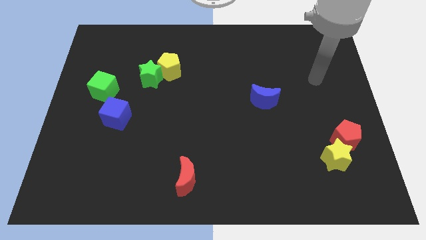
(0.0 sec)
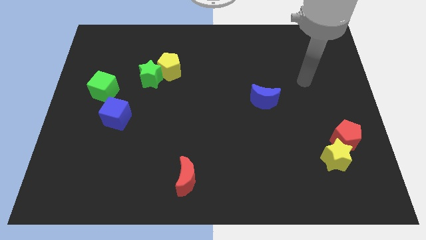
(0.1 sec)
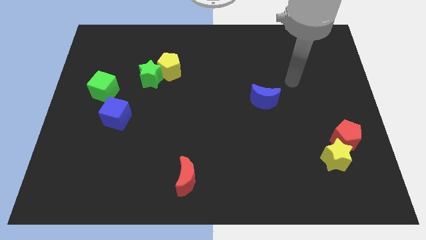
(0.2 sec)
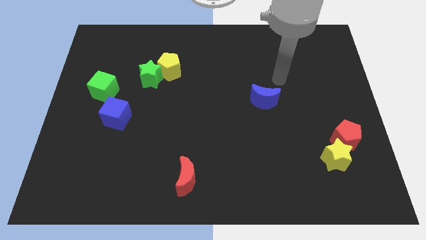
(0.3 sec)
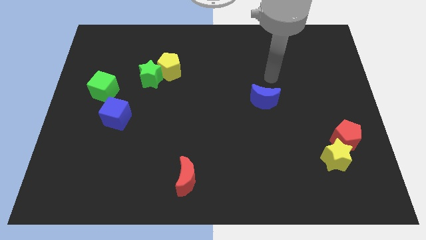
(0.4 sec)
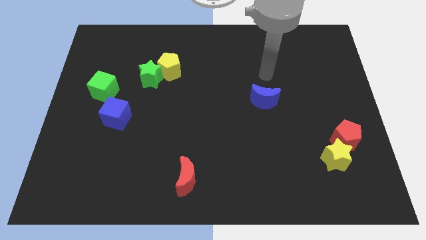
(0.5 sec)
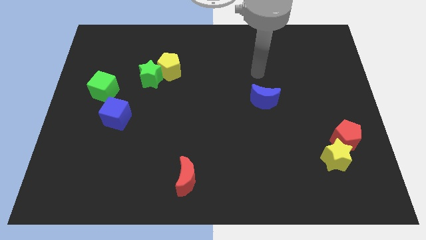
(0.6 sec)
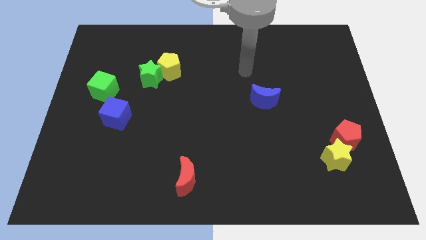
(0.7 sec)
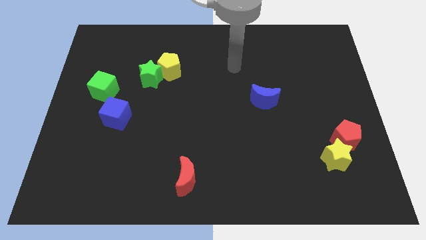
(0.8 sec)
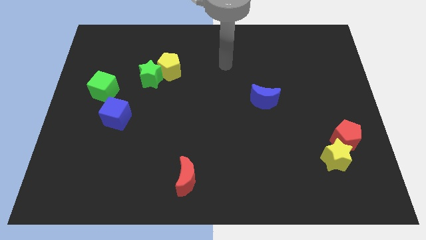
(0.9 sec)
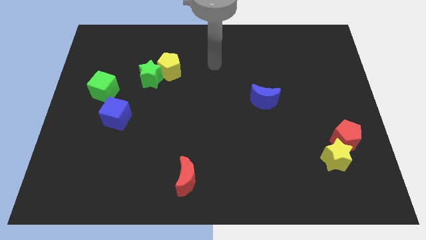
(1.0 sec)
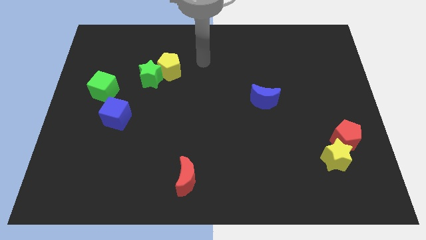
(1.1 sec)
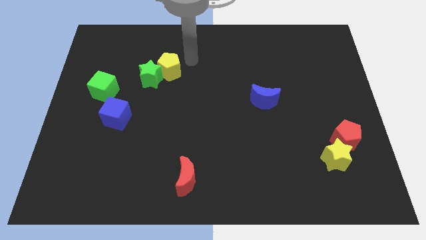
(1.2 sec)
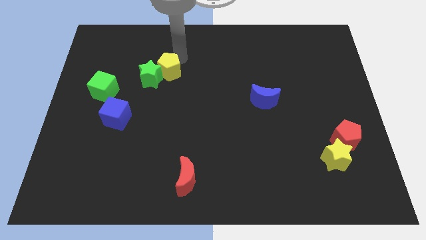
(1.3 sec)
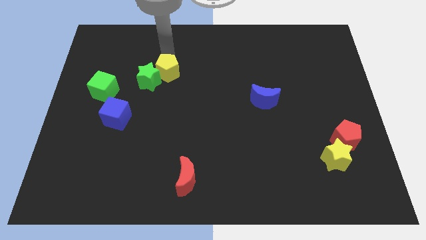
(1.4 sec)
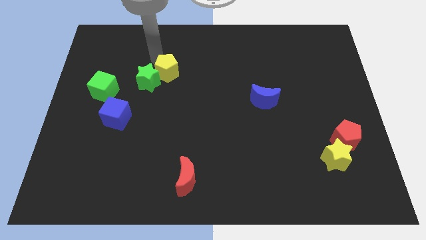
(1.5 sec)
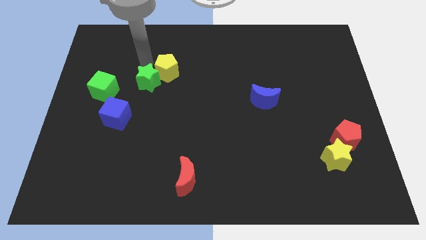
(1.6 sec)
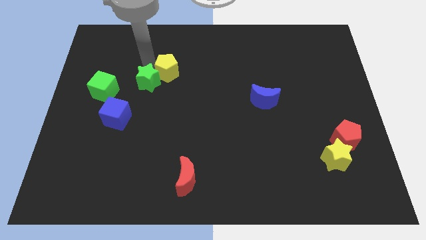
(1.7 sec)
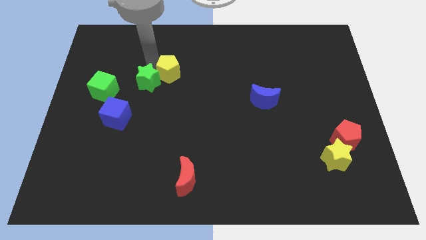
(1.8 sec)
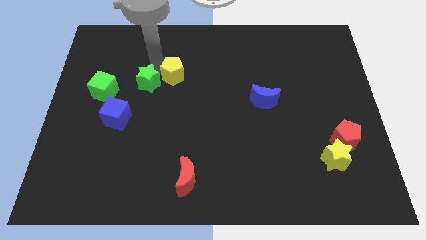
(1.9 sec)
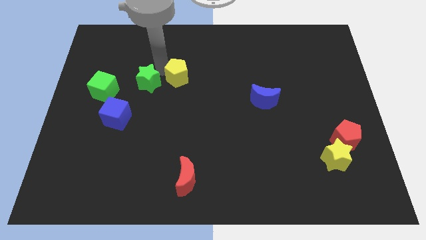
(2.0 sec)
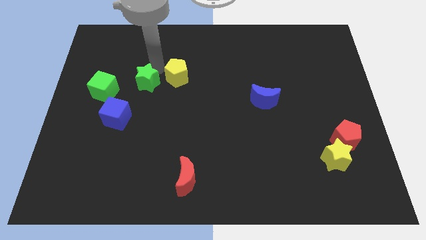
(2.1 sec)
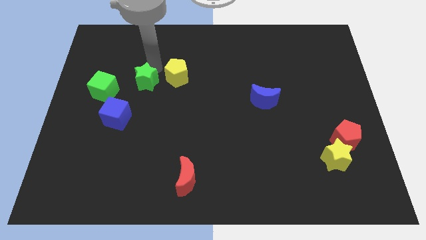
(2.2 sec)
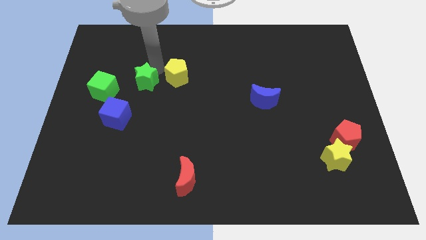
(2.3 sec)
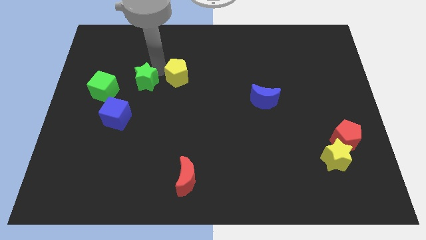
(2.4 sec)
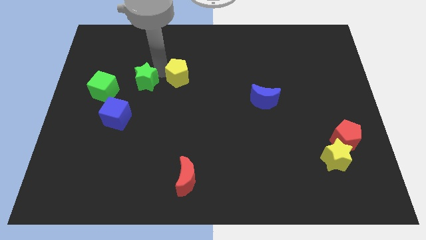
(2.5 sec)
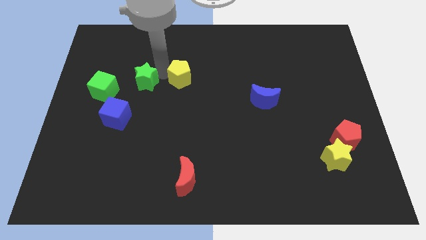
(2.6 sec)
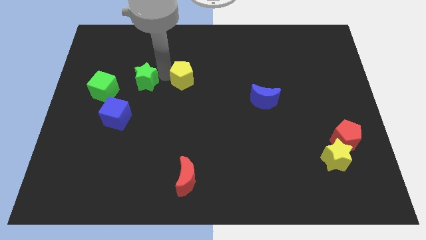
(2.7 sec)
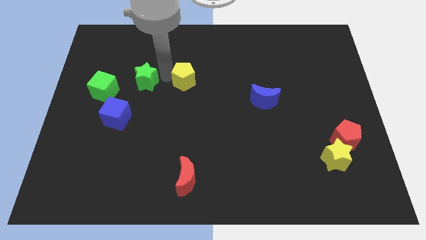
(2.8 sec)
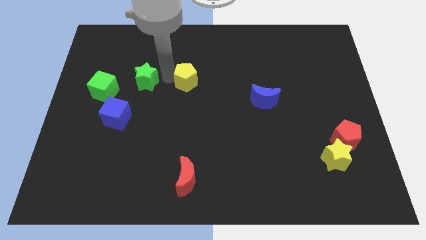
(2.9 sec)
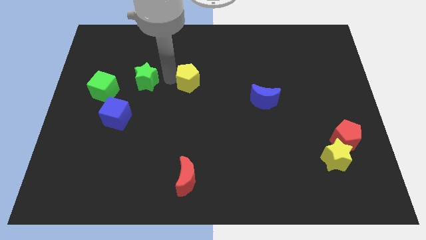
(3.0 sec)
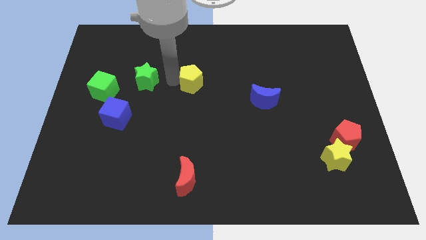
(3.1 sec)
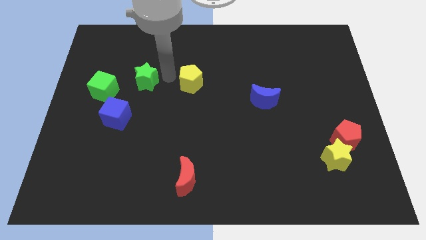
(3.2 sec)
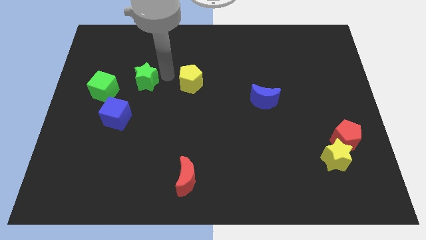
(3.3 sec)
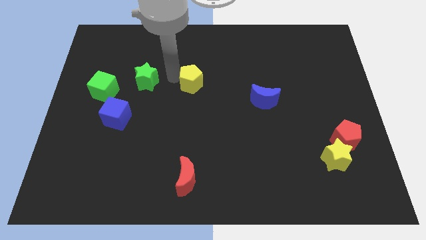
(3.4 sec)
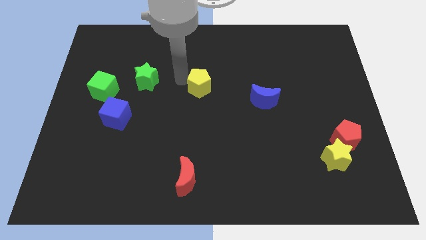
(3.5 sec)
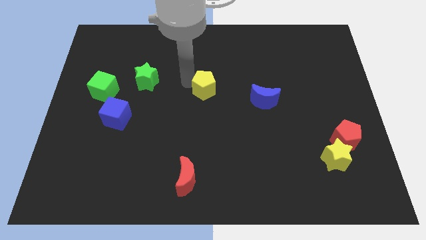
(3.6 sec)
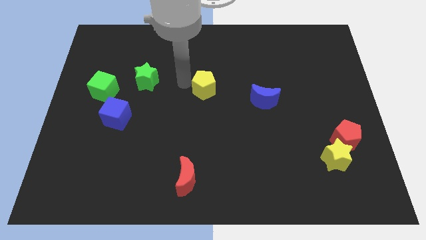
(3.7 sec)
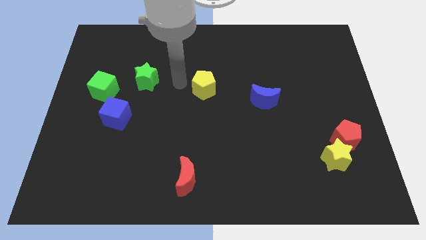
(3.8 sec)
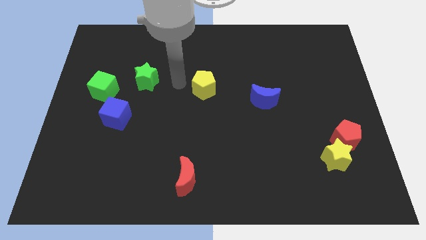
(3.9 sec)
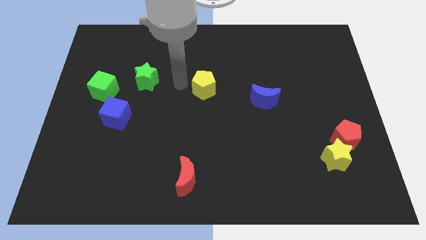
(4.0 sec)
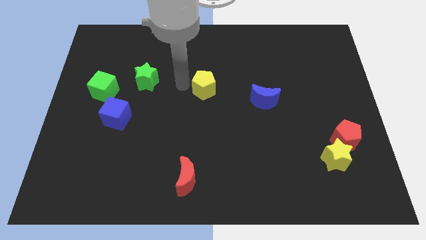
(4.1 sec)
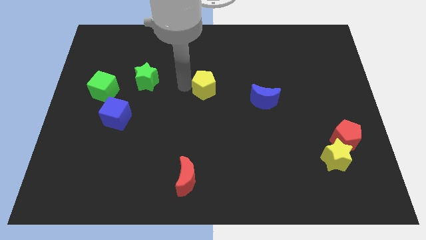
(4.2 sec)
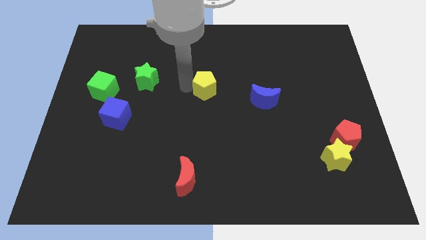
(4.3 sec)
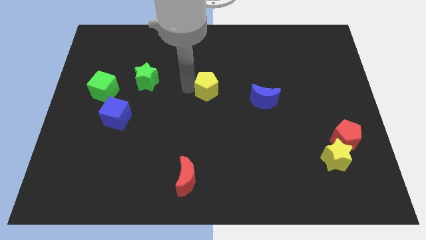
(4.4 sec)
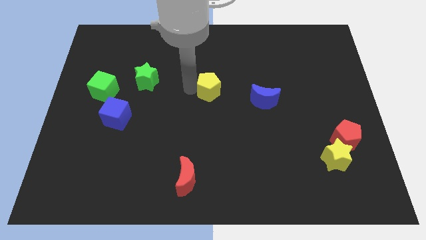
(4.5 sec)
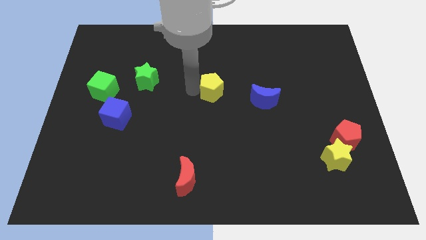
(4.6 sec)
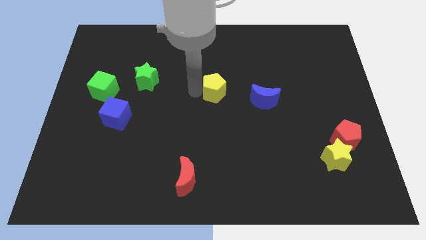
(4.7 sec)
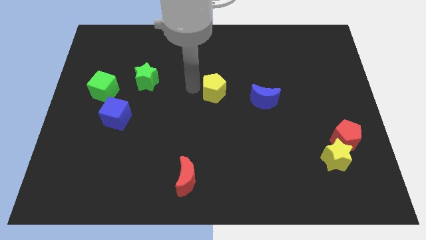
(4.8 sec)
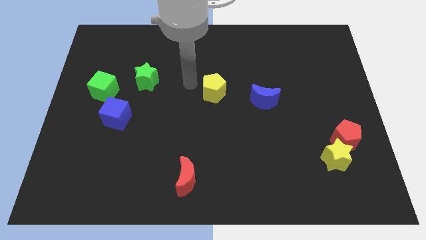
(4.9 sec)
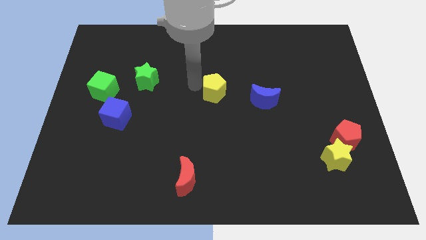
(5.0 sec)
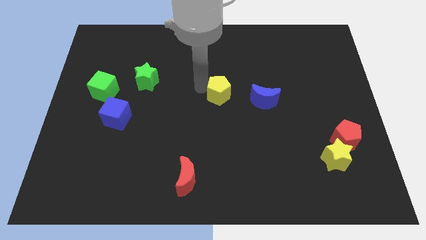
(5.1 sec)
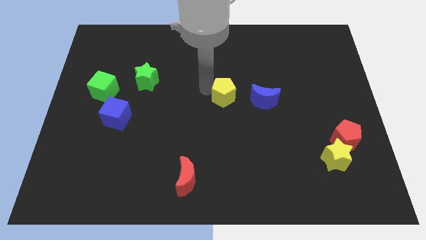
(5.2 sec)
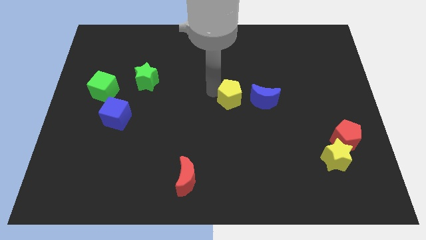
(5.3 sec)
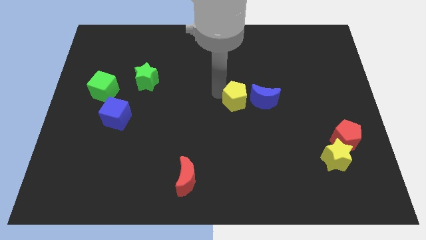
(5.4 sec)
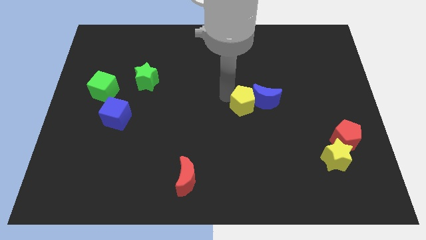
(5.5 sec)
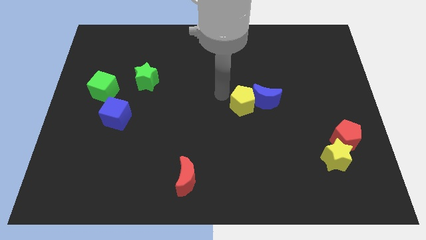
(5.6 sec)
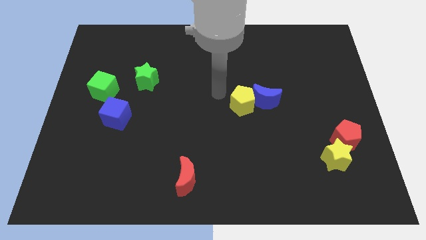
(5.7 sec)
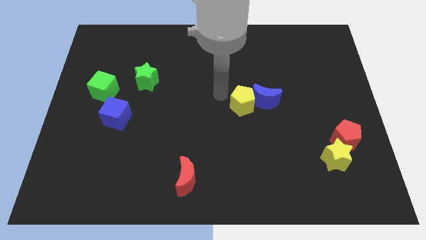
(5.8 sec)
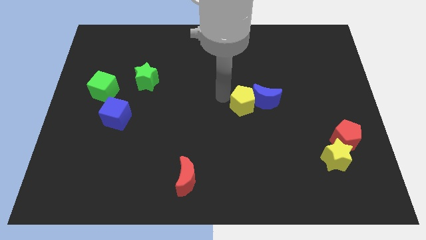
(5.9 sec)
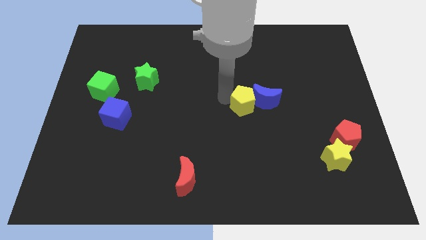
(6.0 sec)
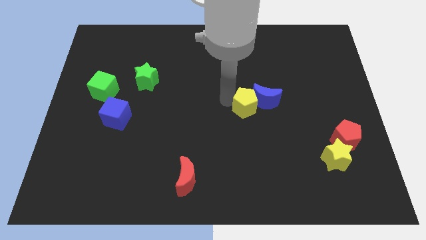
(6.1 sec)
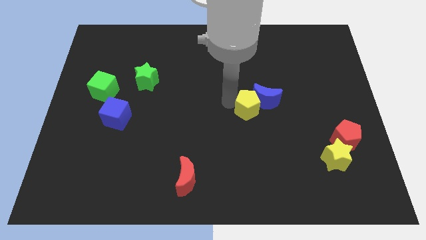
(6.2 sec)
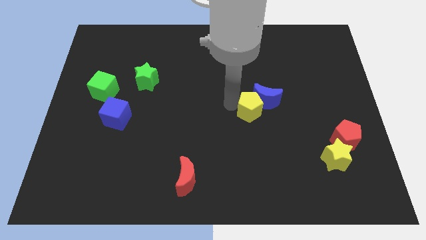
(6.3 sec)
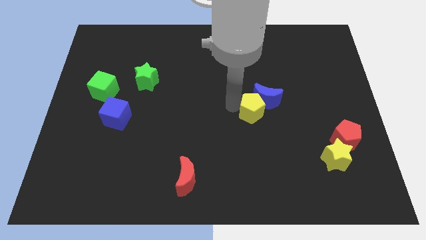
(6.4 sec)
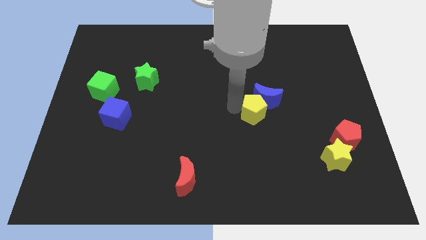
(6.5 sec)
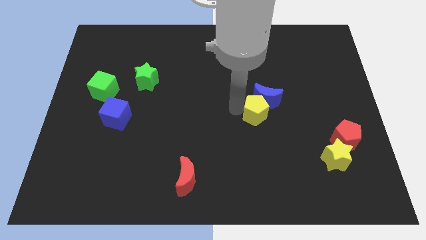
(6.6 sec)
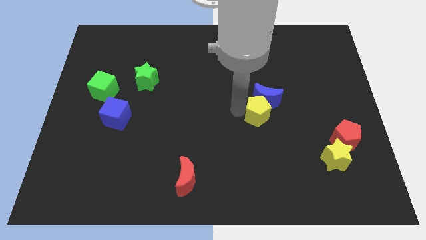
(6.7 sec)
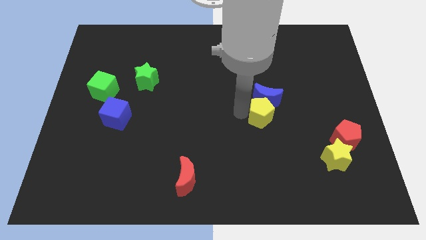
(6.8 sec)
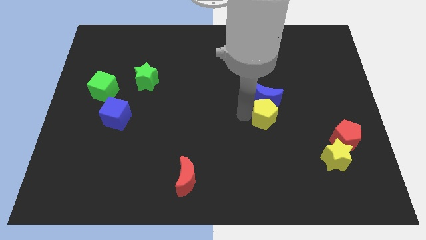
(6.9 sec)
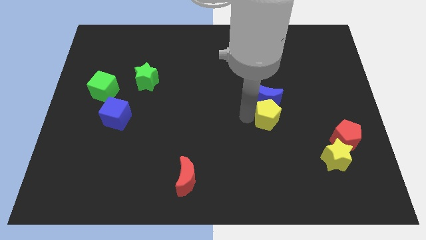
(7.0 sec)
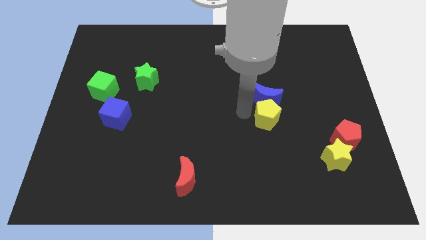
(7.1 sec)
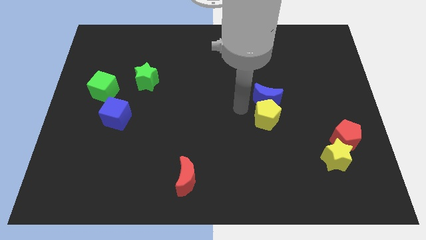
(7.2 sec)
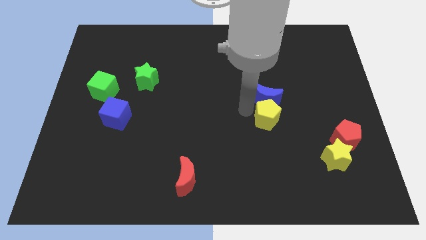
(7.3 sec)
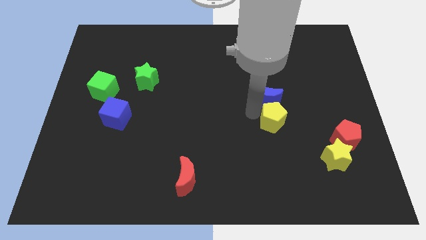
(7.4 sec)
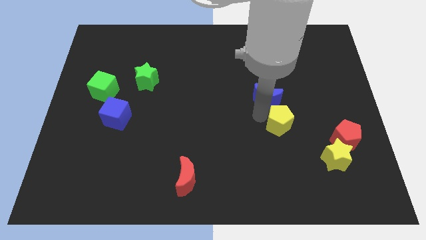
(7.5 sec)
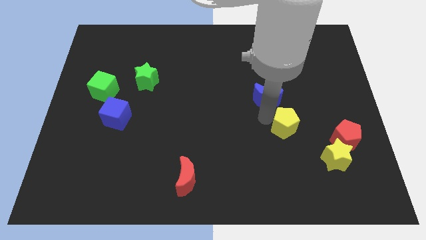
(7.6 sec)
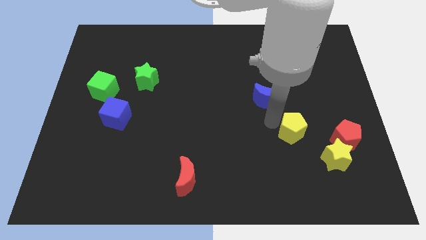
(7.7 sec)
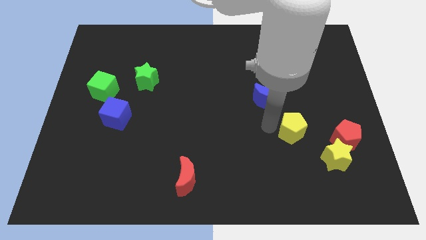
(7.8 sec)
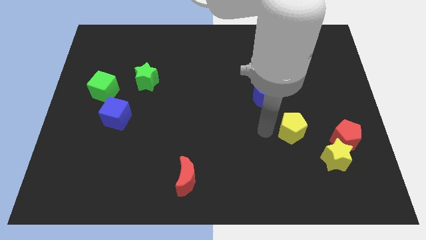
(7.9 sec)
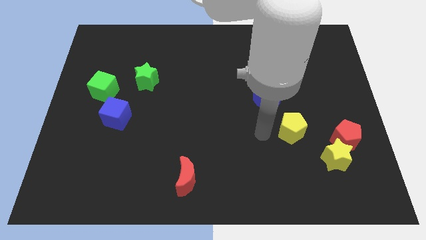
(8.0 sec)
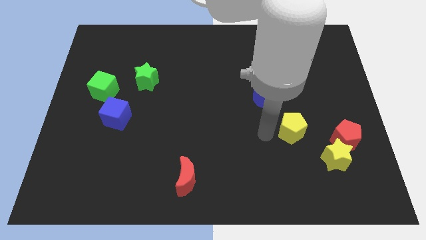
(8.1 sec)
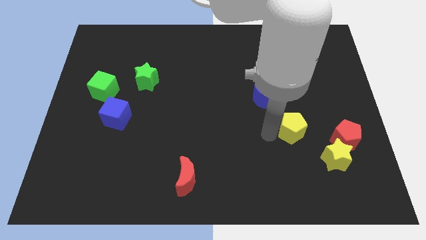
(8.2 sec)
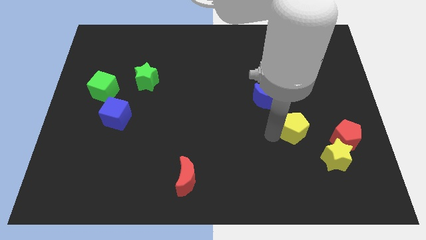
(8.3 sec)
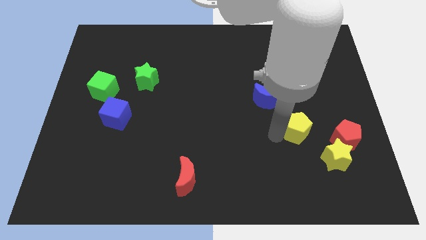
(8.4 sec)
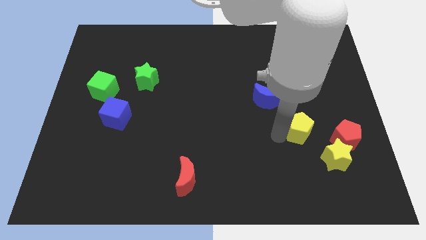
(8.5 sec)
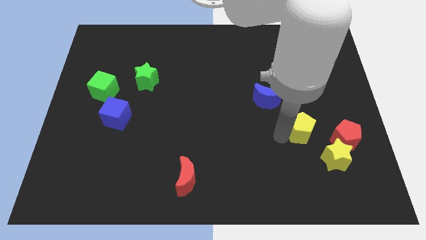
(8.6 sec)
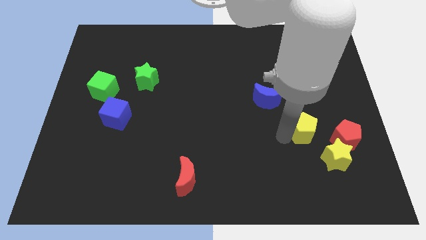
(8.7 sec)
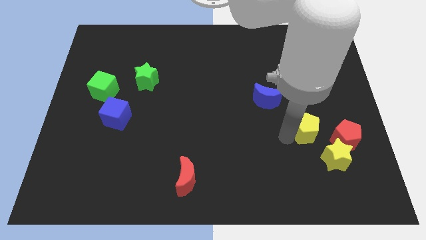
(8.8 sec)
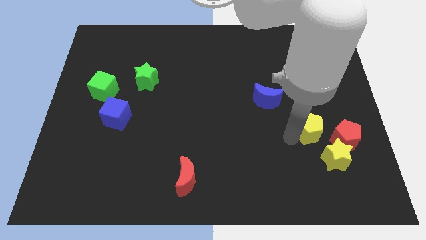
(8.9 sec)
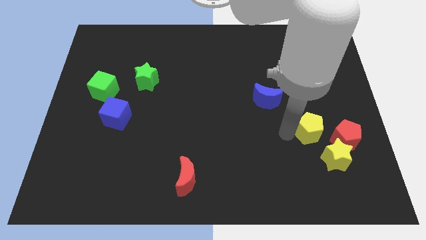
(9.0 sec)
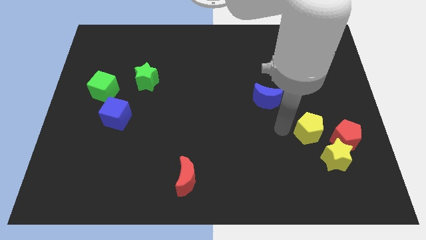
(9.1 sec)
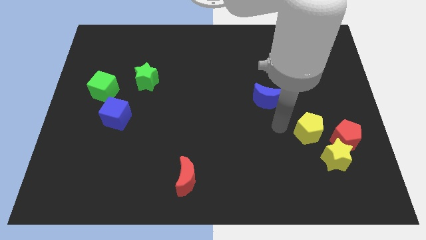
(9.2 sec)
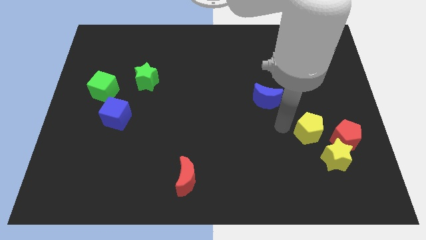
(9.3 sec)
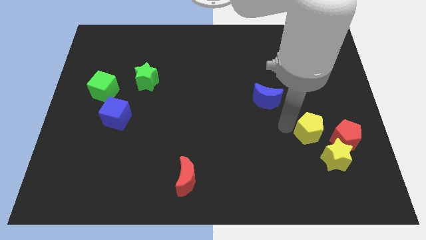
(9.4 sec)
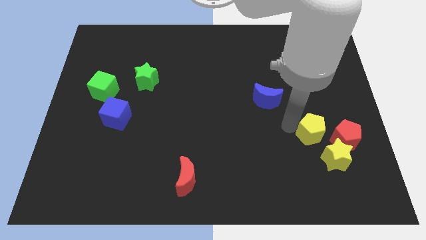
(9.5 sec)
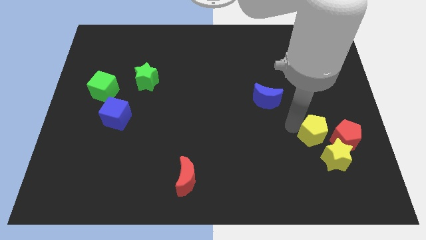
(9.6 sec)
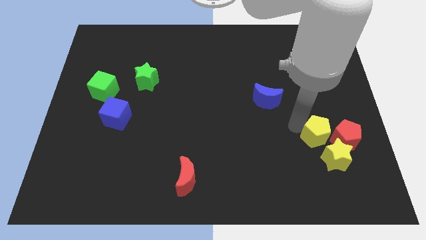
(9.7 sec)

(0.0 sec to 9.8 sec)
slide the yellow pentagon to the red pentagon
